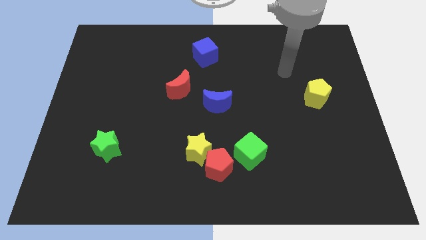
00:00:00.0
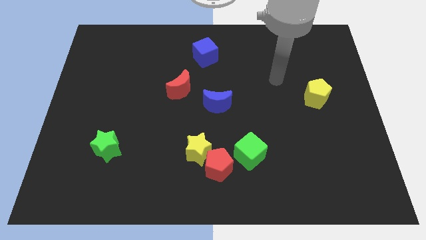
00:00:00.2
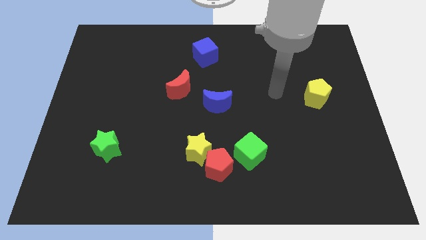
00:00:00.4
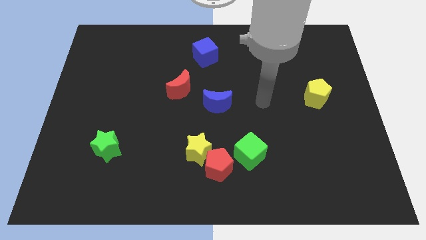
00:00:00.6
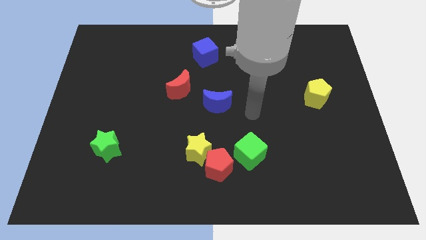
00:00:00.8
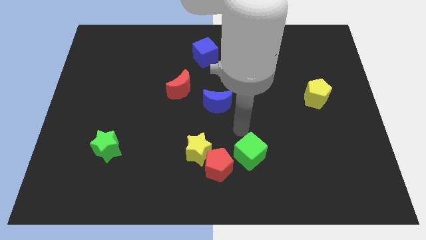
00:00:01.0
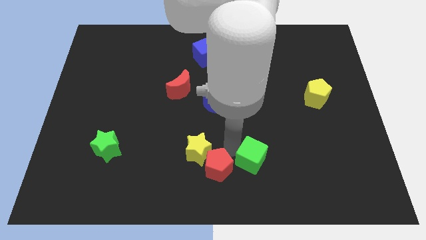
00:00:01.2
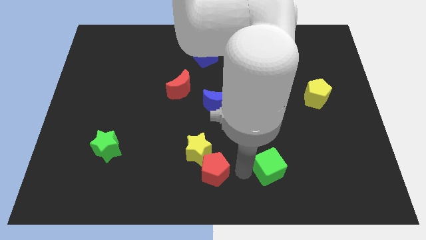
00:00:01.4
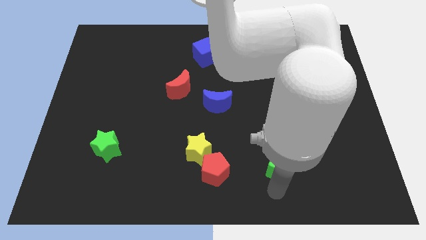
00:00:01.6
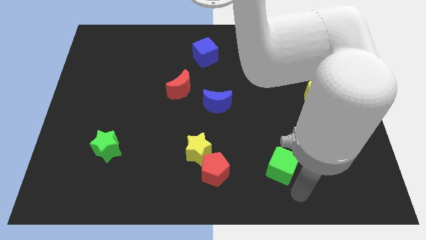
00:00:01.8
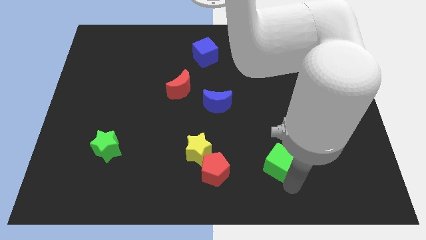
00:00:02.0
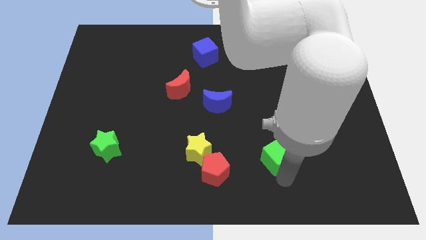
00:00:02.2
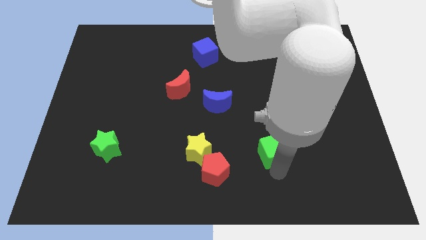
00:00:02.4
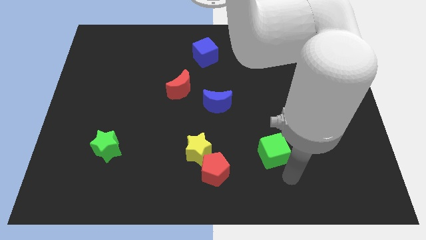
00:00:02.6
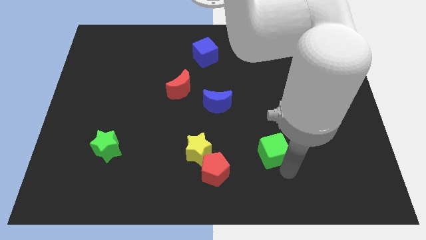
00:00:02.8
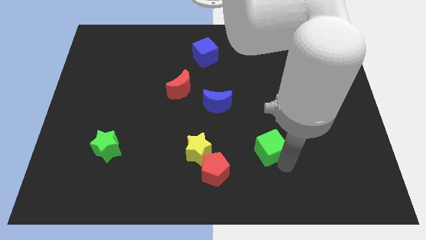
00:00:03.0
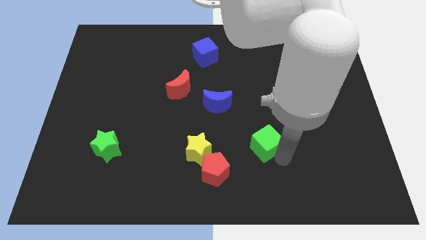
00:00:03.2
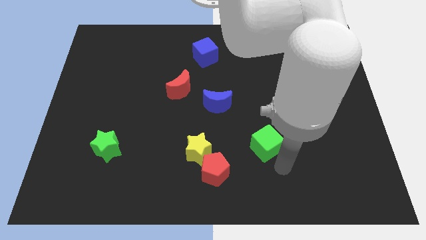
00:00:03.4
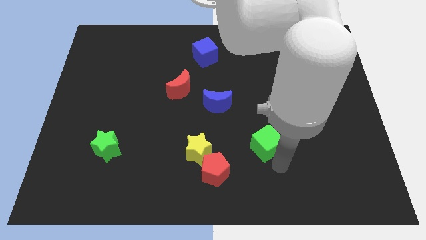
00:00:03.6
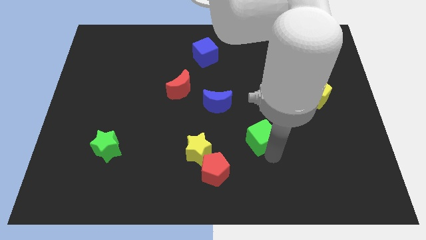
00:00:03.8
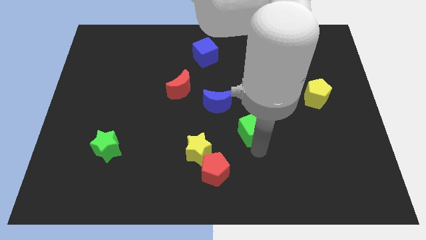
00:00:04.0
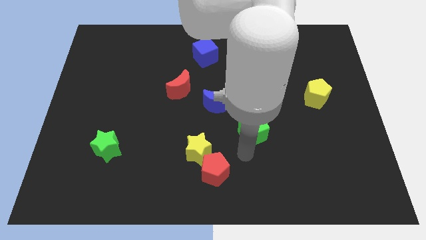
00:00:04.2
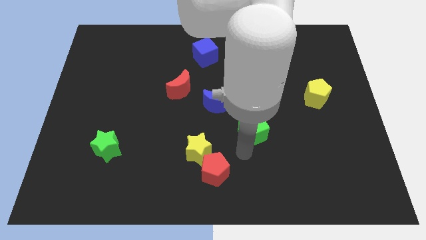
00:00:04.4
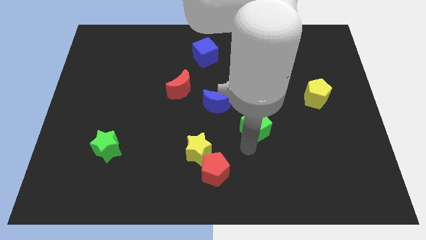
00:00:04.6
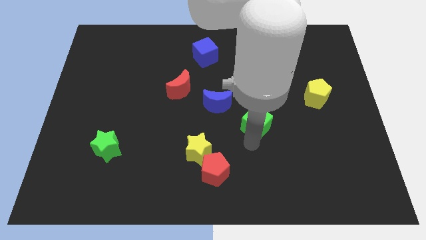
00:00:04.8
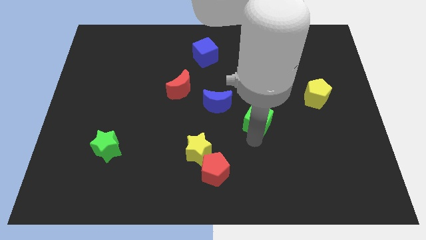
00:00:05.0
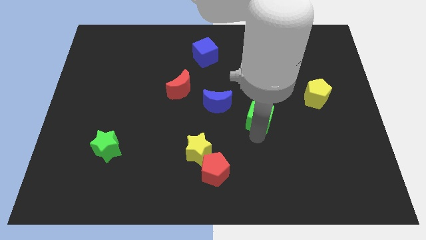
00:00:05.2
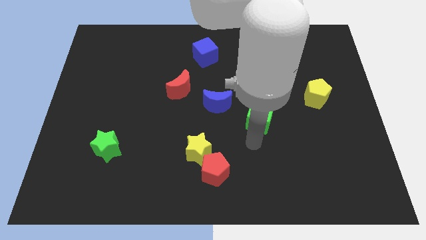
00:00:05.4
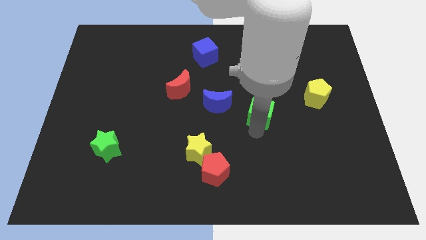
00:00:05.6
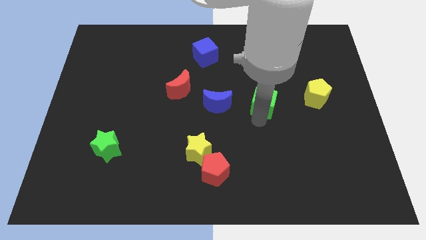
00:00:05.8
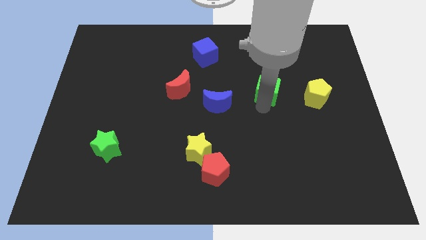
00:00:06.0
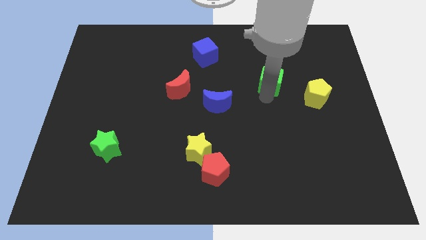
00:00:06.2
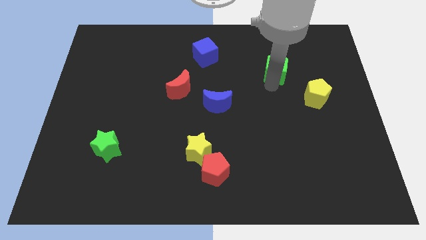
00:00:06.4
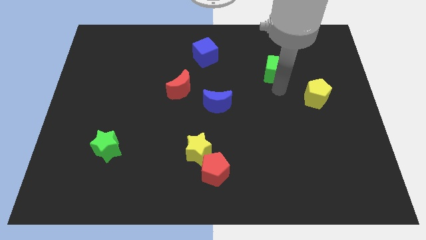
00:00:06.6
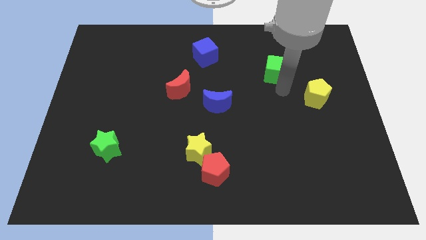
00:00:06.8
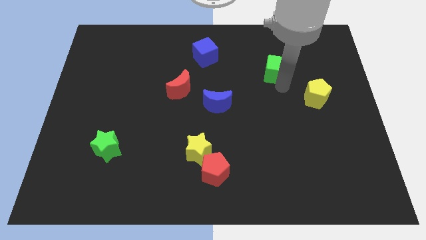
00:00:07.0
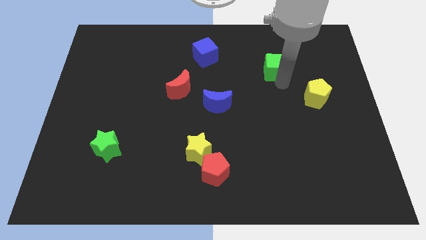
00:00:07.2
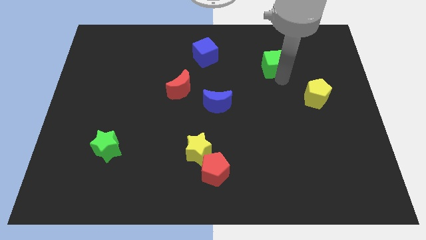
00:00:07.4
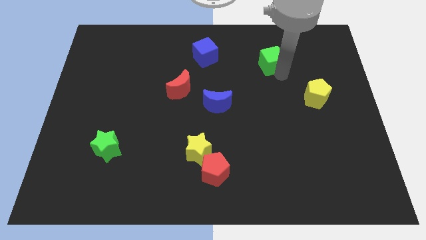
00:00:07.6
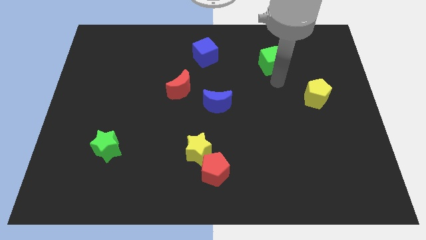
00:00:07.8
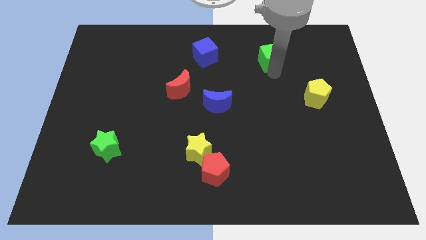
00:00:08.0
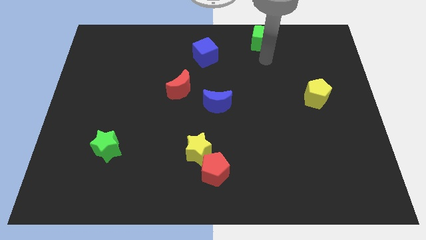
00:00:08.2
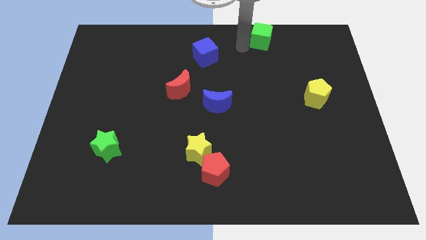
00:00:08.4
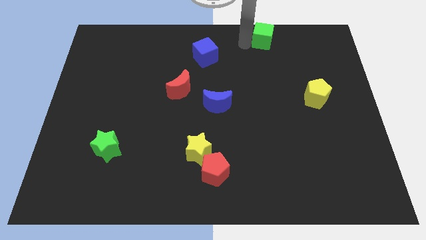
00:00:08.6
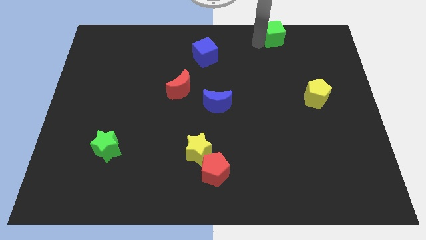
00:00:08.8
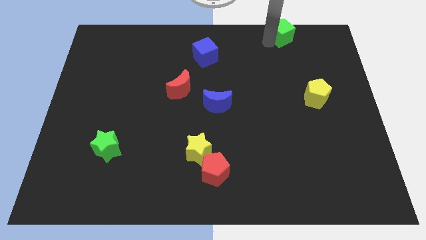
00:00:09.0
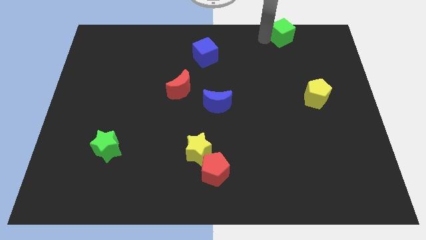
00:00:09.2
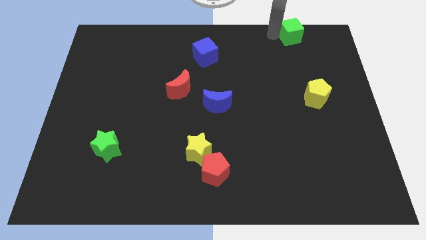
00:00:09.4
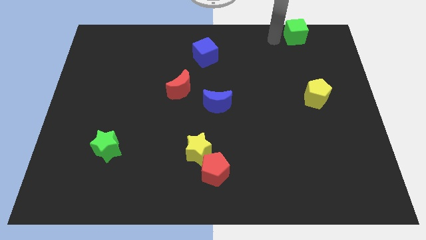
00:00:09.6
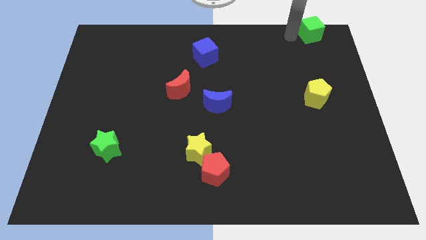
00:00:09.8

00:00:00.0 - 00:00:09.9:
put the green cube to the top right of the board
